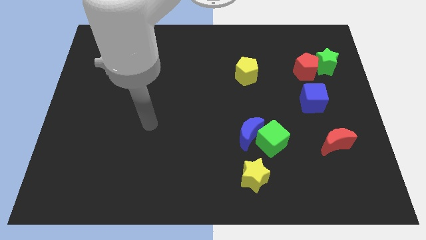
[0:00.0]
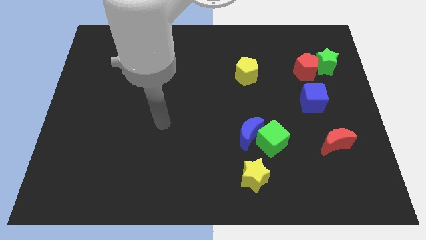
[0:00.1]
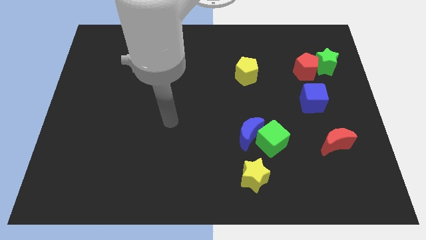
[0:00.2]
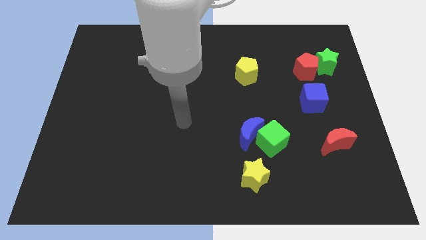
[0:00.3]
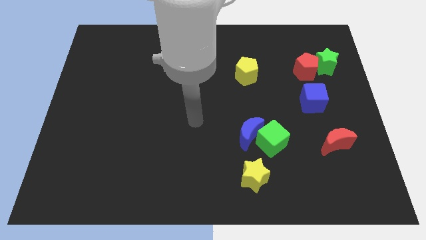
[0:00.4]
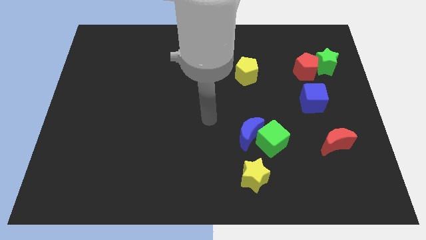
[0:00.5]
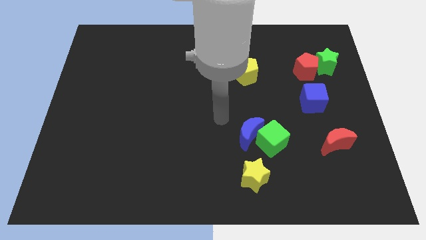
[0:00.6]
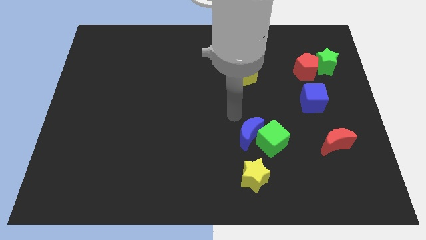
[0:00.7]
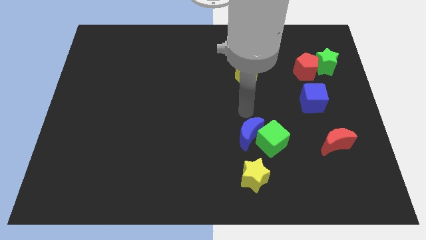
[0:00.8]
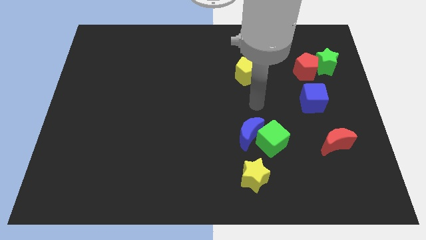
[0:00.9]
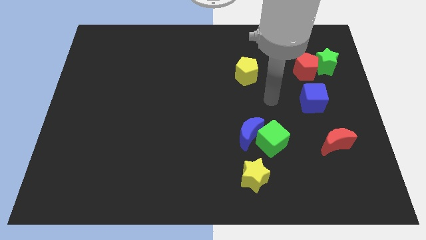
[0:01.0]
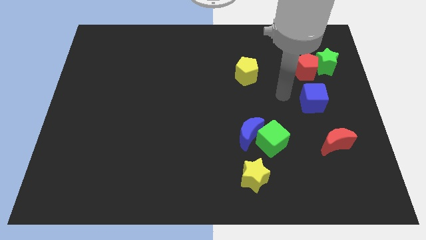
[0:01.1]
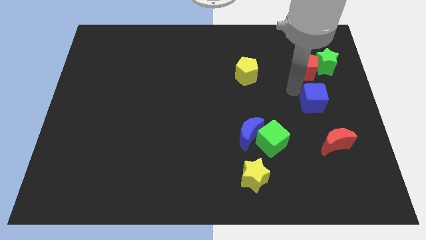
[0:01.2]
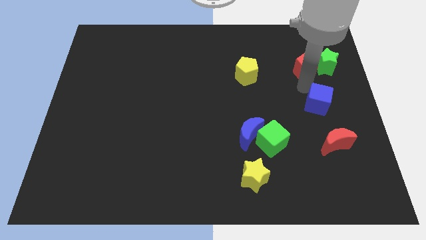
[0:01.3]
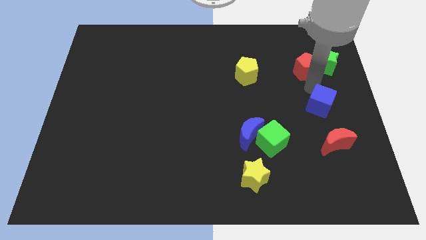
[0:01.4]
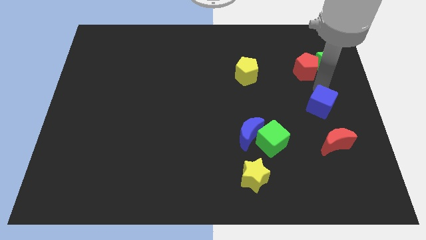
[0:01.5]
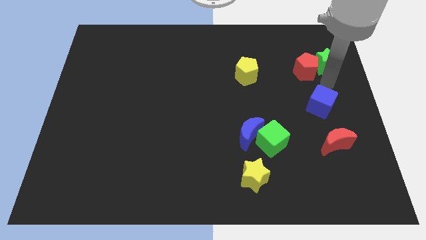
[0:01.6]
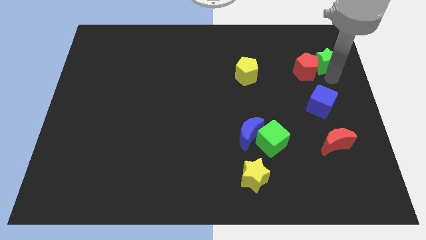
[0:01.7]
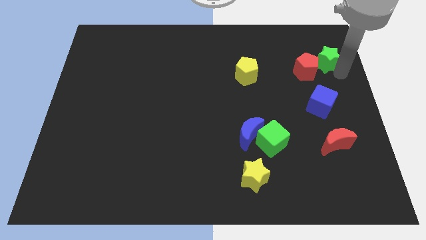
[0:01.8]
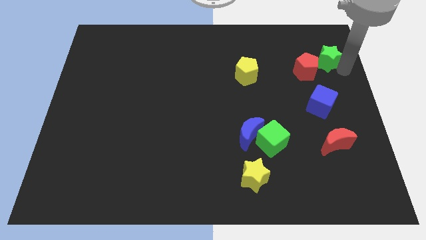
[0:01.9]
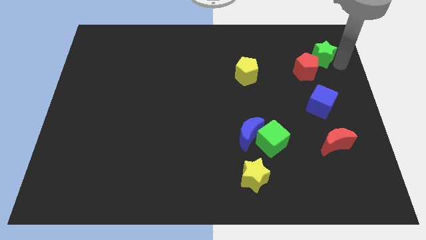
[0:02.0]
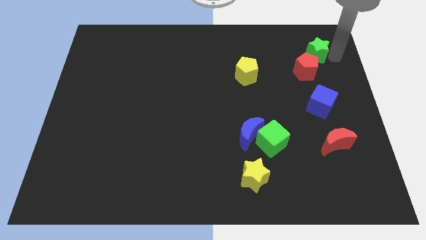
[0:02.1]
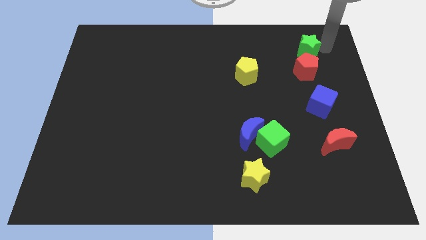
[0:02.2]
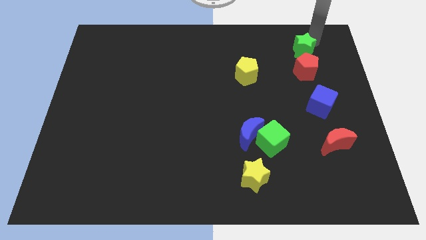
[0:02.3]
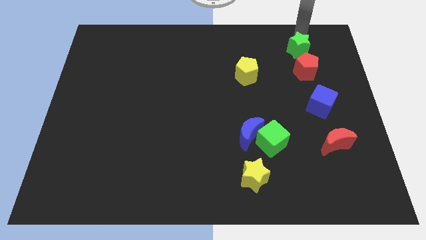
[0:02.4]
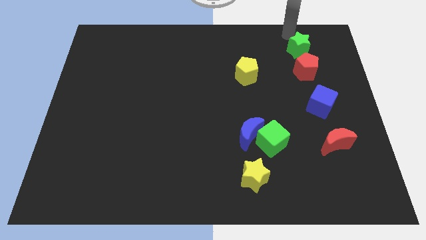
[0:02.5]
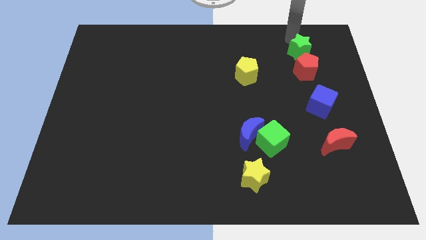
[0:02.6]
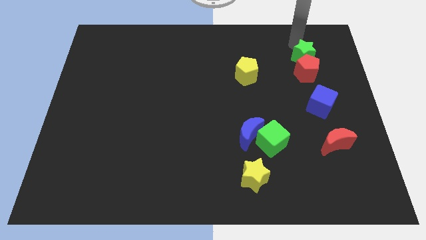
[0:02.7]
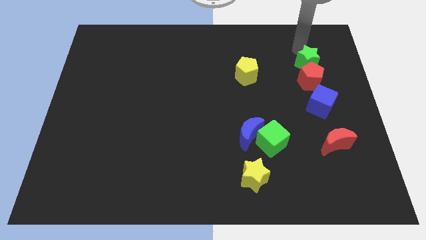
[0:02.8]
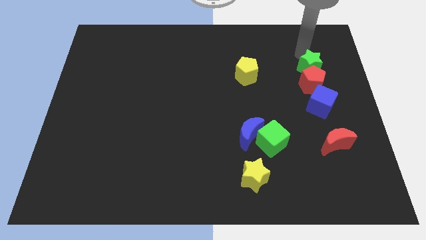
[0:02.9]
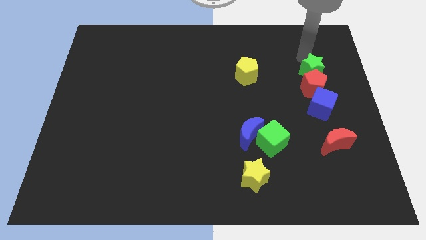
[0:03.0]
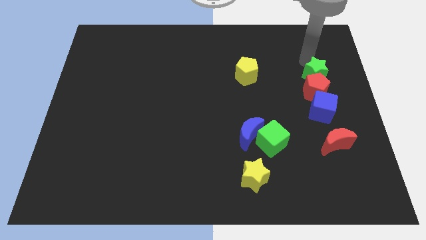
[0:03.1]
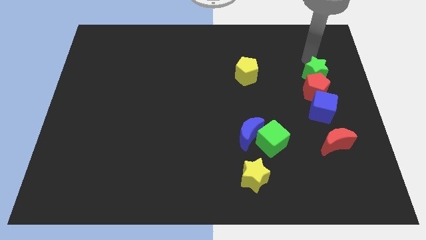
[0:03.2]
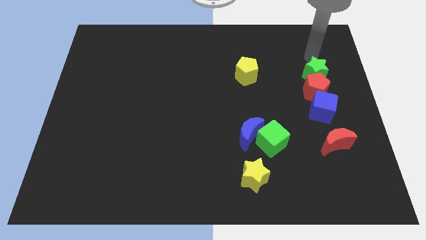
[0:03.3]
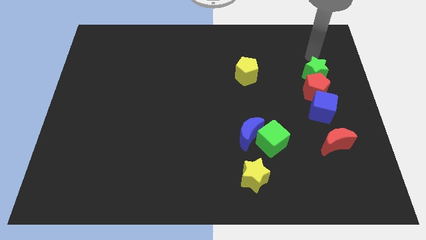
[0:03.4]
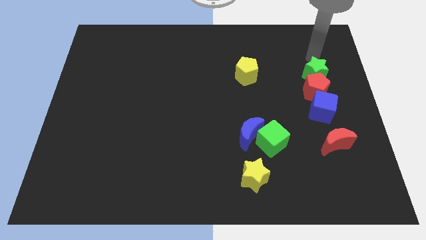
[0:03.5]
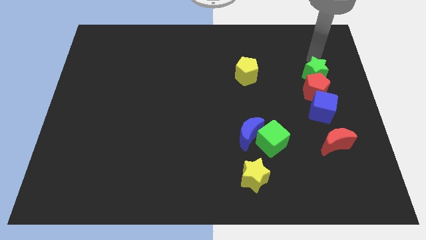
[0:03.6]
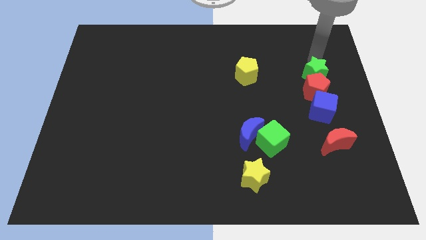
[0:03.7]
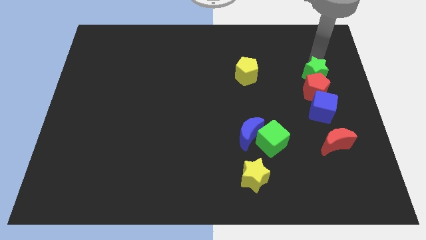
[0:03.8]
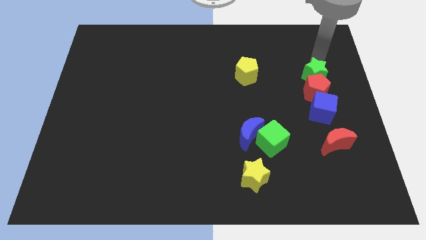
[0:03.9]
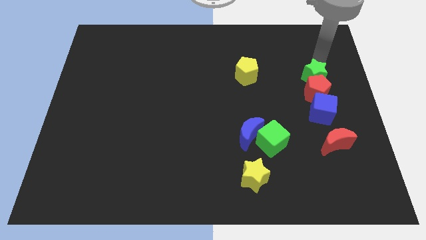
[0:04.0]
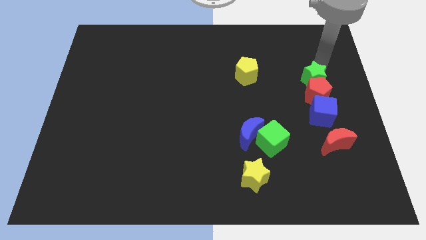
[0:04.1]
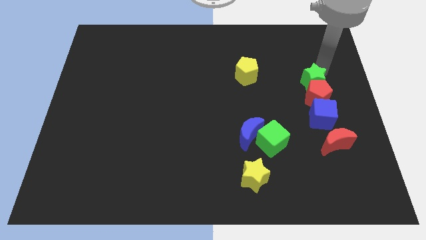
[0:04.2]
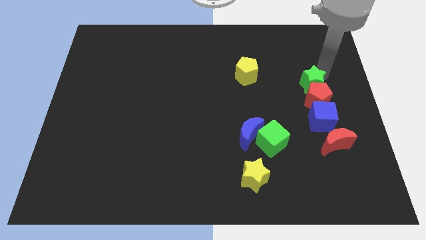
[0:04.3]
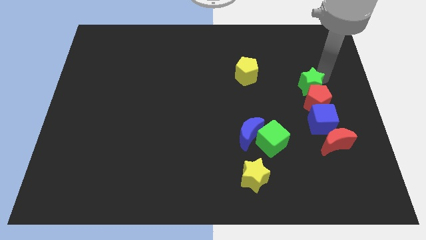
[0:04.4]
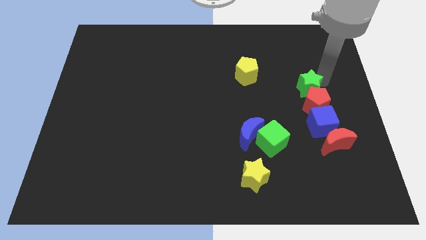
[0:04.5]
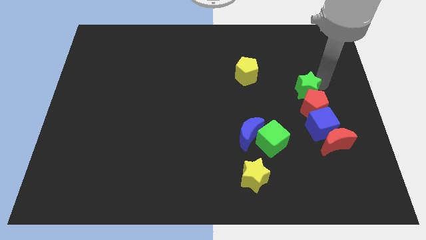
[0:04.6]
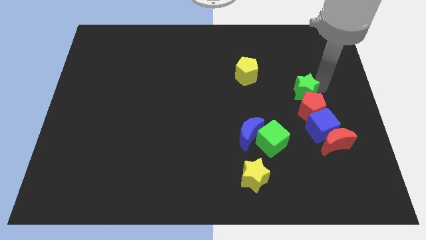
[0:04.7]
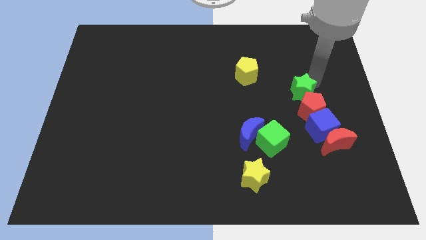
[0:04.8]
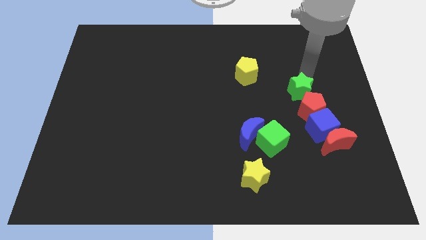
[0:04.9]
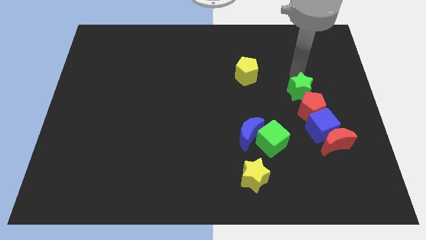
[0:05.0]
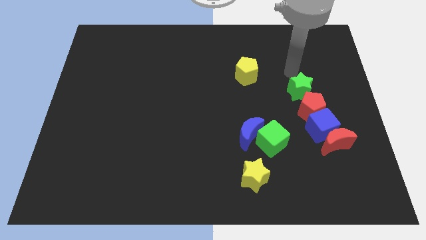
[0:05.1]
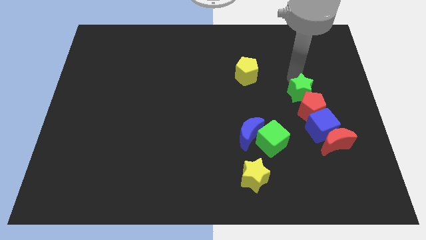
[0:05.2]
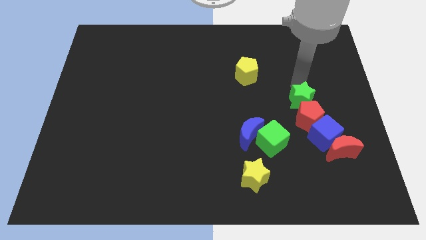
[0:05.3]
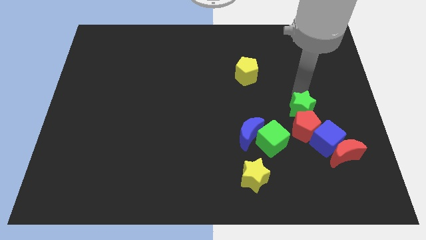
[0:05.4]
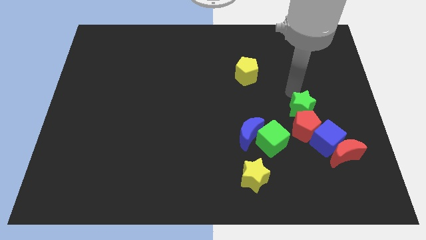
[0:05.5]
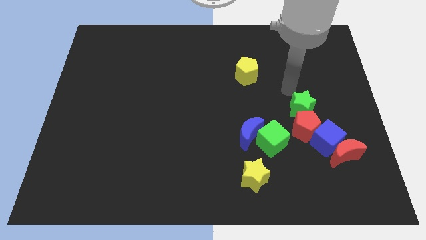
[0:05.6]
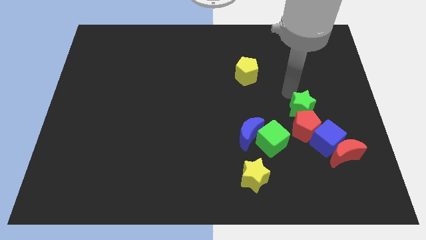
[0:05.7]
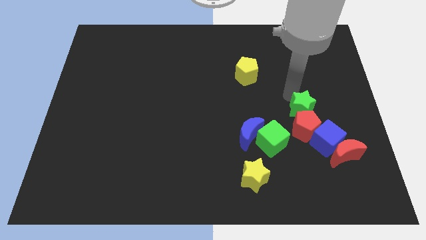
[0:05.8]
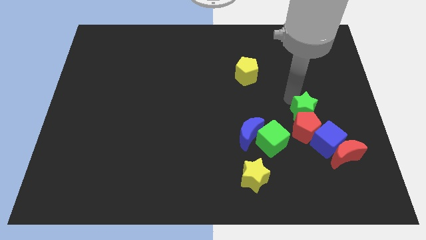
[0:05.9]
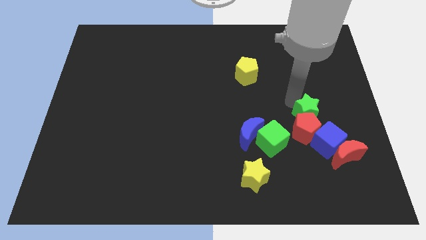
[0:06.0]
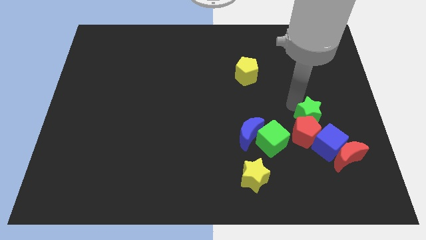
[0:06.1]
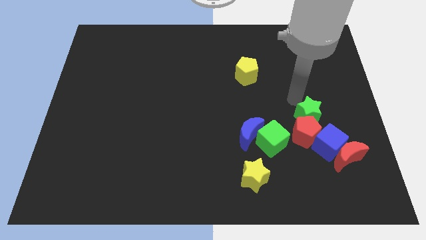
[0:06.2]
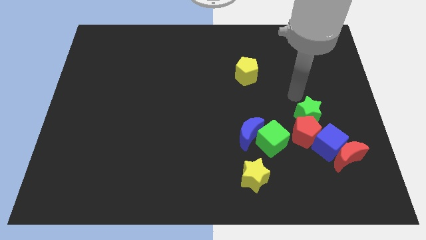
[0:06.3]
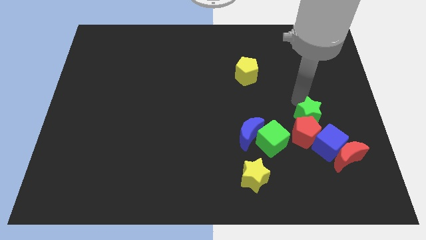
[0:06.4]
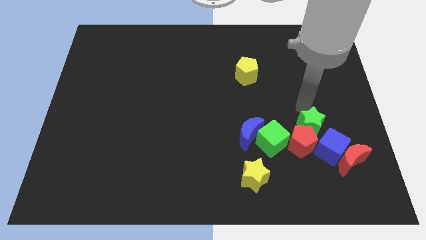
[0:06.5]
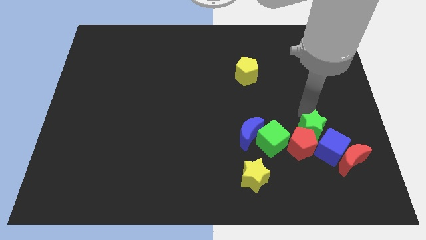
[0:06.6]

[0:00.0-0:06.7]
push the green star to the blue cube

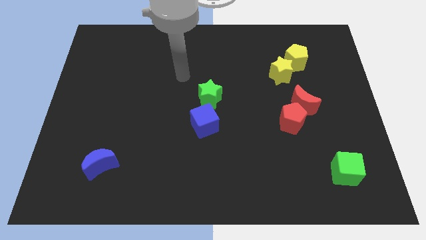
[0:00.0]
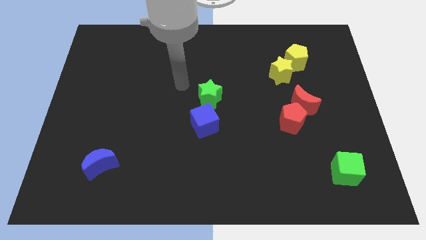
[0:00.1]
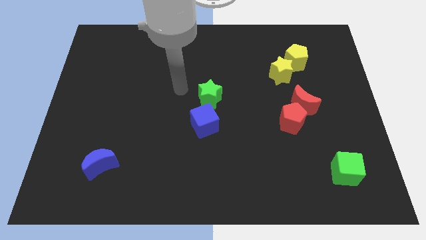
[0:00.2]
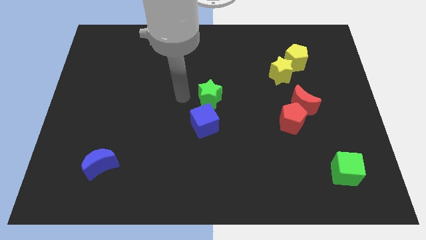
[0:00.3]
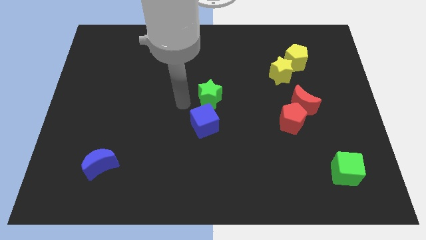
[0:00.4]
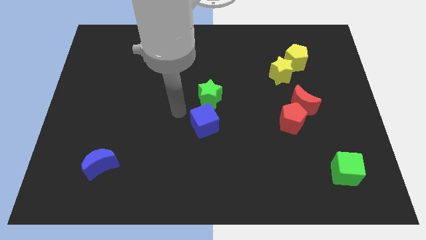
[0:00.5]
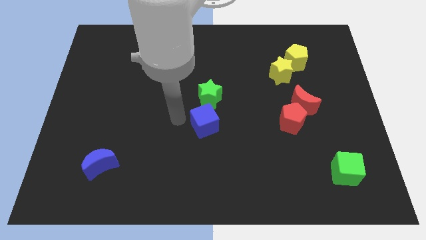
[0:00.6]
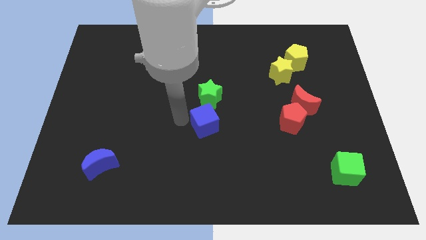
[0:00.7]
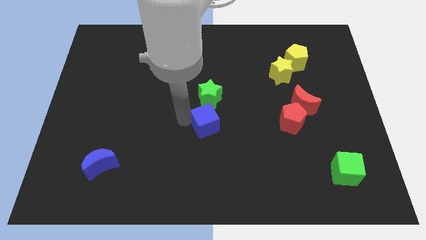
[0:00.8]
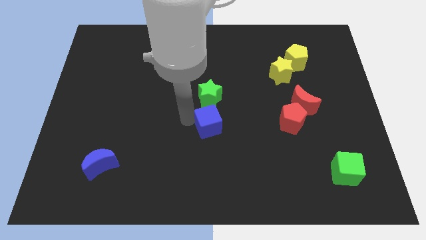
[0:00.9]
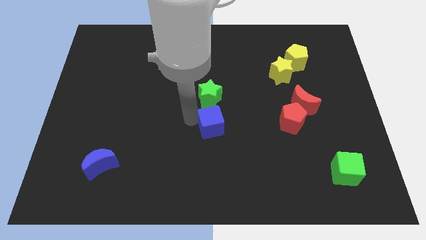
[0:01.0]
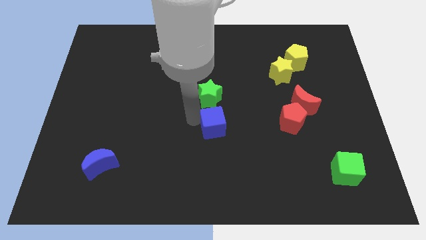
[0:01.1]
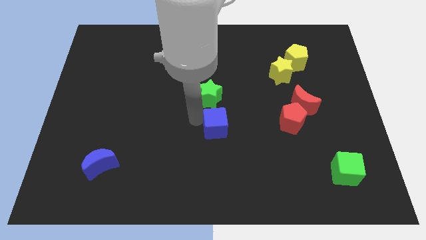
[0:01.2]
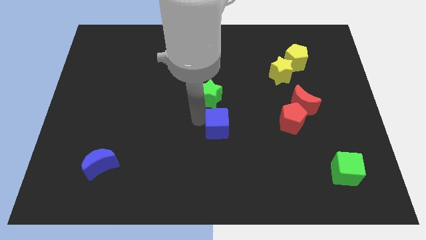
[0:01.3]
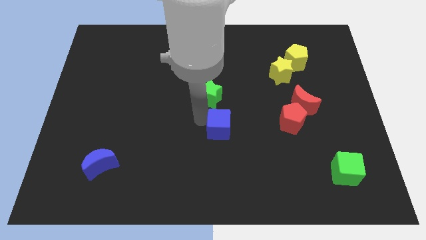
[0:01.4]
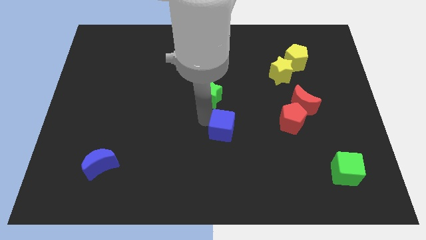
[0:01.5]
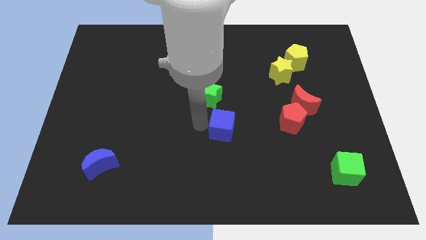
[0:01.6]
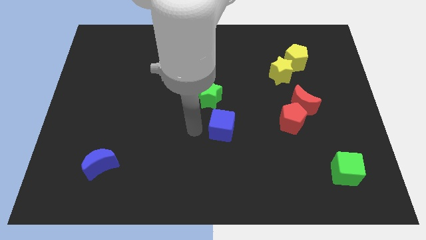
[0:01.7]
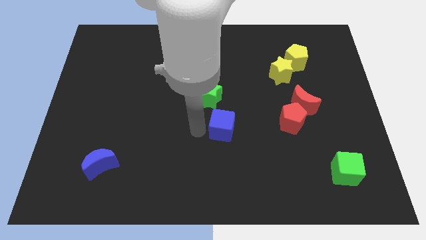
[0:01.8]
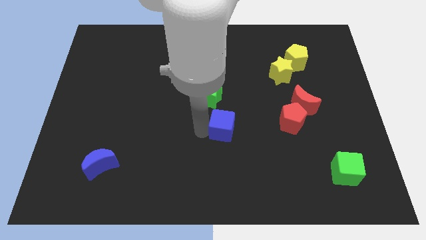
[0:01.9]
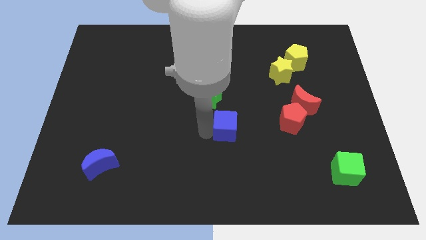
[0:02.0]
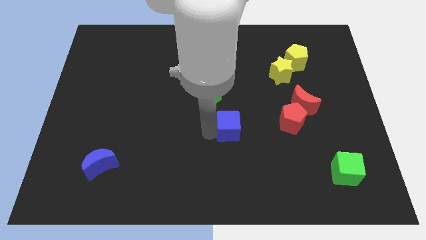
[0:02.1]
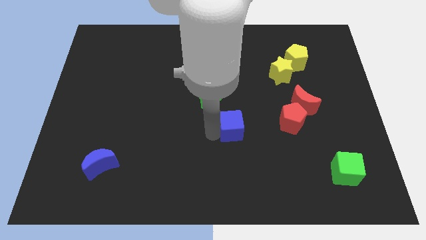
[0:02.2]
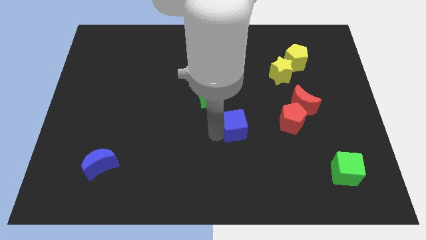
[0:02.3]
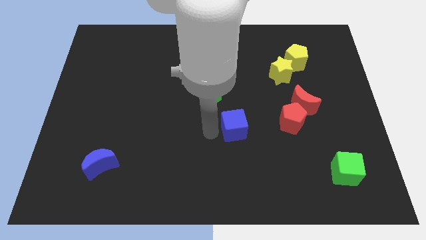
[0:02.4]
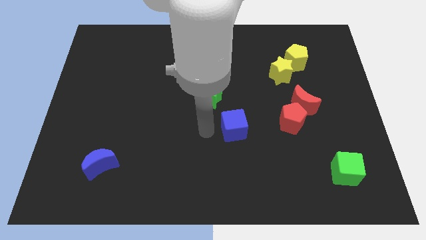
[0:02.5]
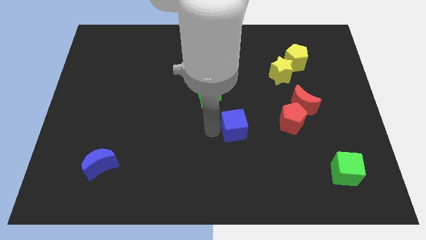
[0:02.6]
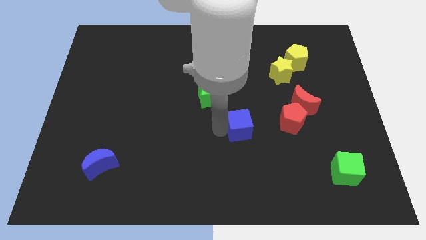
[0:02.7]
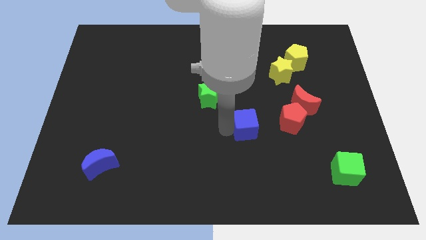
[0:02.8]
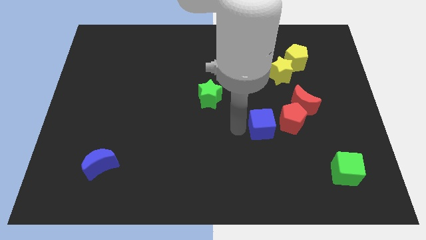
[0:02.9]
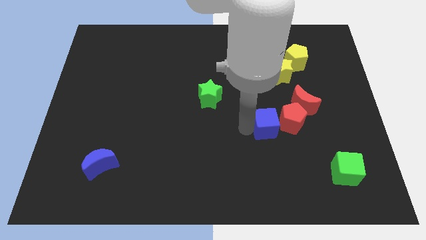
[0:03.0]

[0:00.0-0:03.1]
slide the blue cube towards the red pentagon
